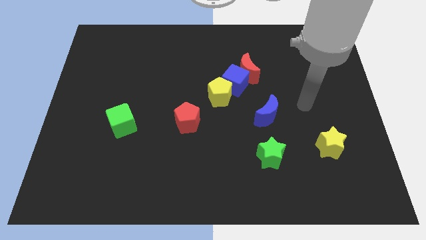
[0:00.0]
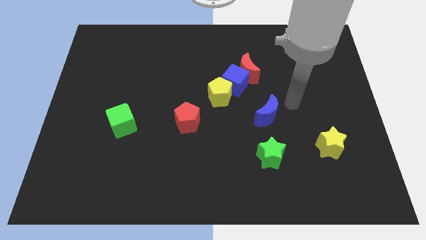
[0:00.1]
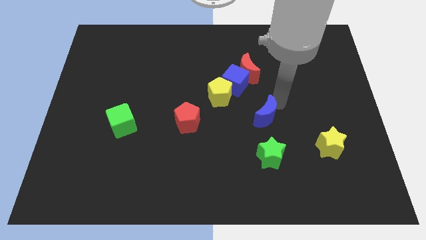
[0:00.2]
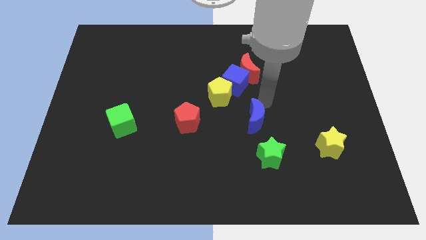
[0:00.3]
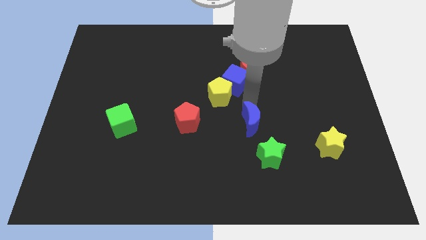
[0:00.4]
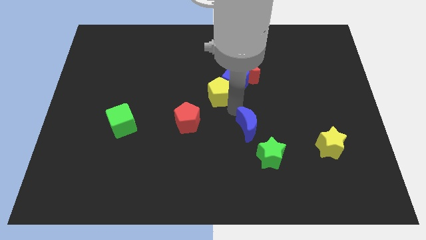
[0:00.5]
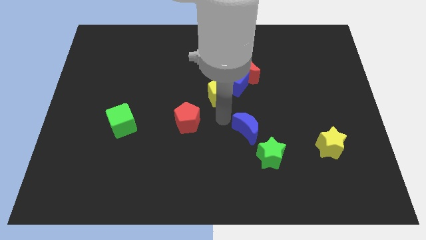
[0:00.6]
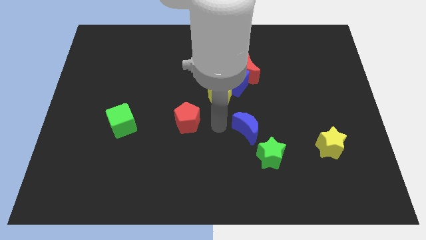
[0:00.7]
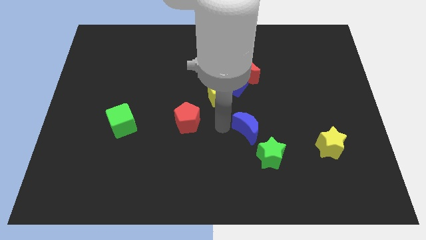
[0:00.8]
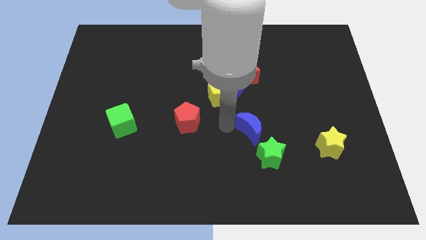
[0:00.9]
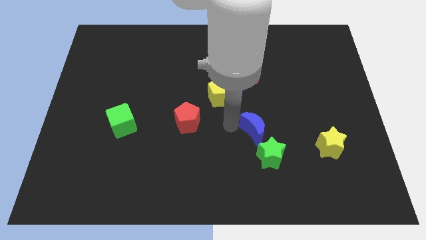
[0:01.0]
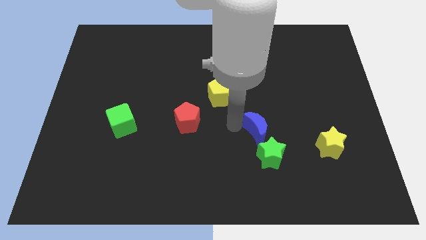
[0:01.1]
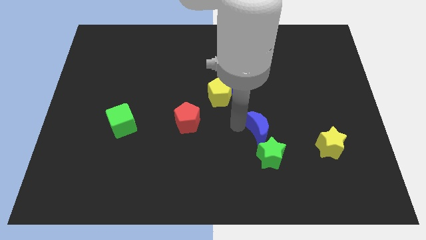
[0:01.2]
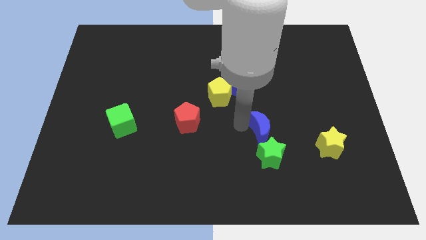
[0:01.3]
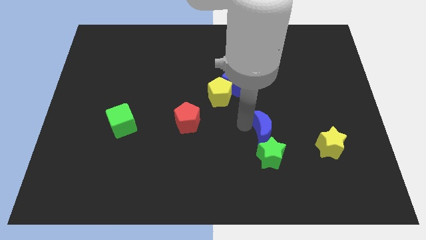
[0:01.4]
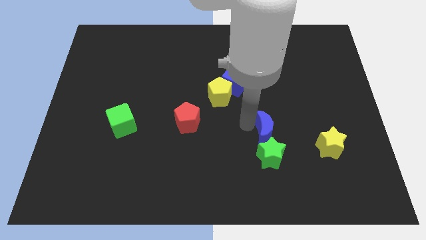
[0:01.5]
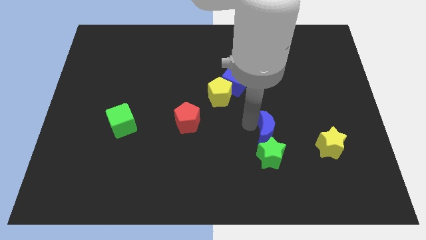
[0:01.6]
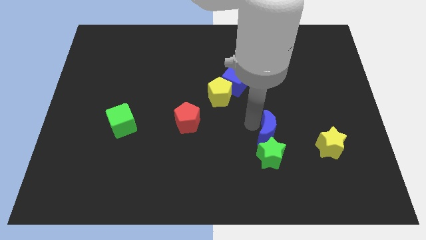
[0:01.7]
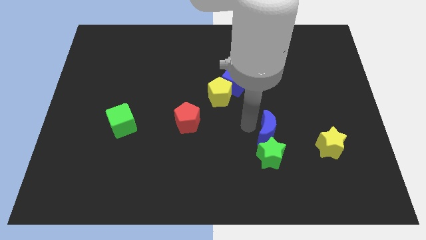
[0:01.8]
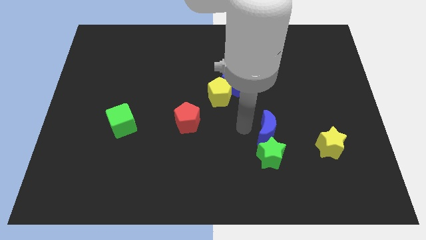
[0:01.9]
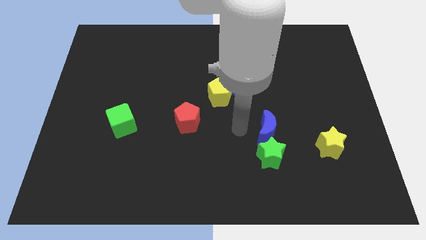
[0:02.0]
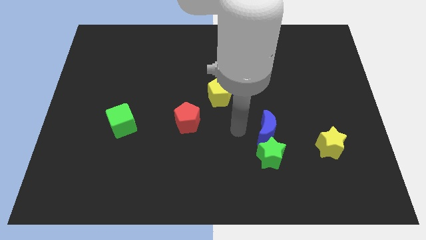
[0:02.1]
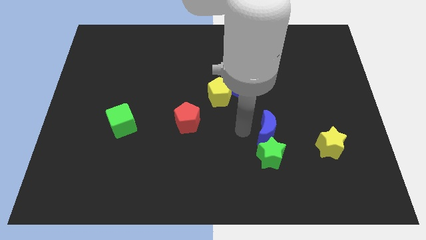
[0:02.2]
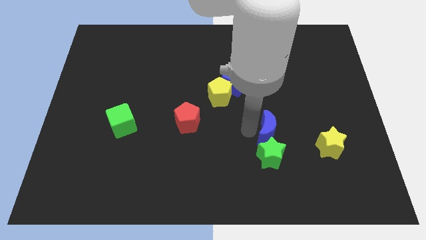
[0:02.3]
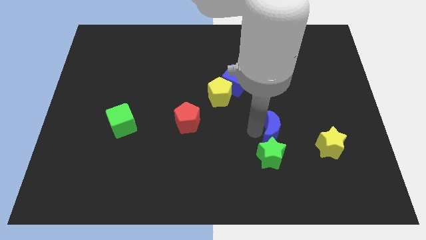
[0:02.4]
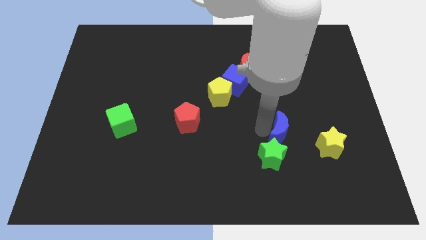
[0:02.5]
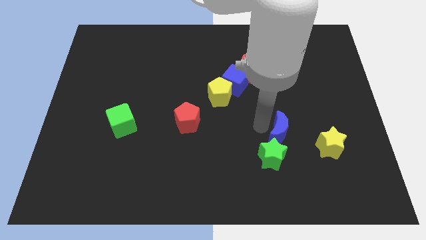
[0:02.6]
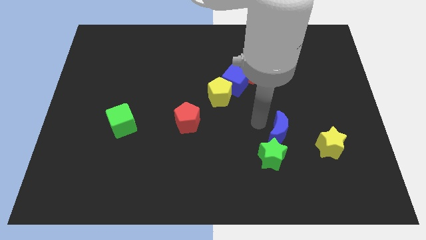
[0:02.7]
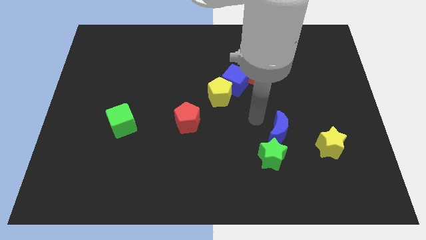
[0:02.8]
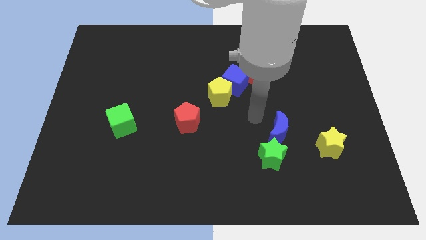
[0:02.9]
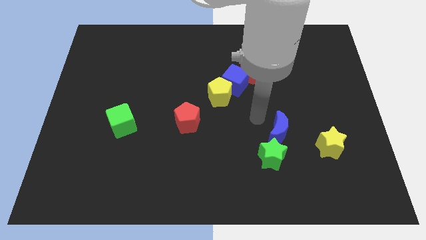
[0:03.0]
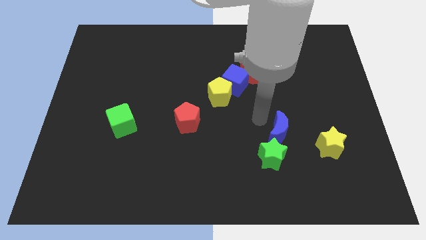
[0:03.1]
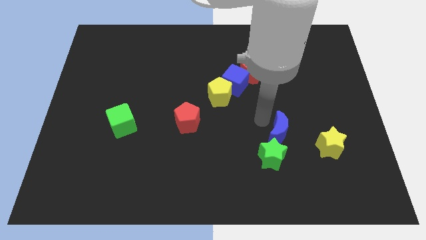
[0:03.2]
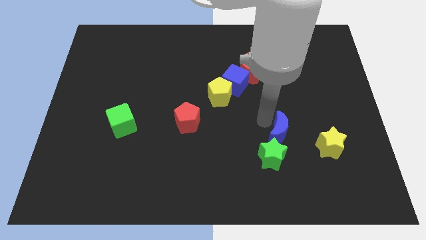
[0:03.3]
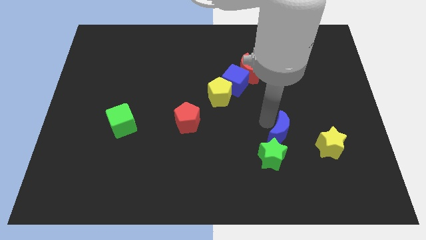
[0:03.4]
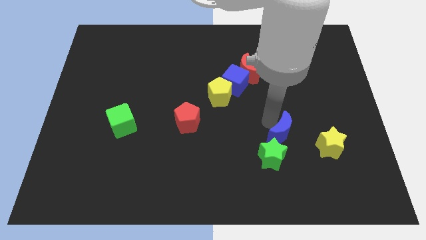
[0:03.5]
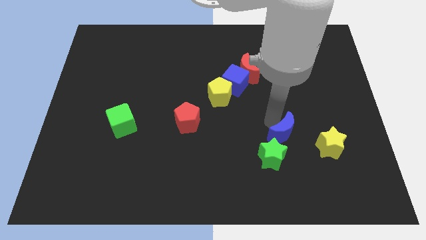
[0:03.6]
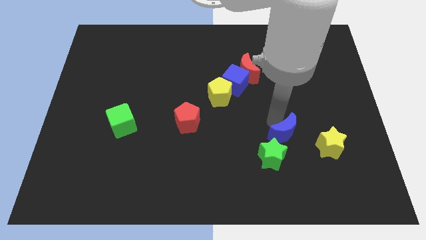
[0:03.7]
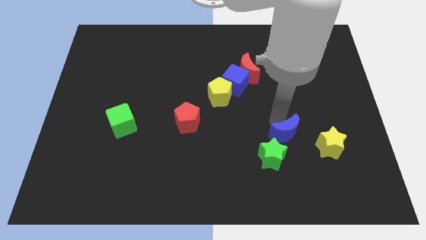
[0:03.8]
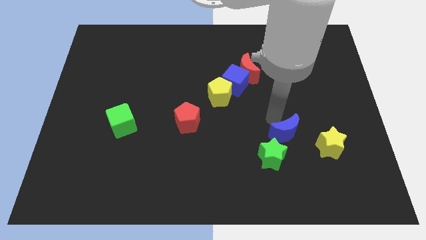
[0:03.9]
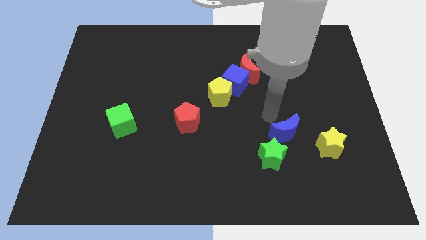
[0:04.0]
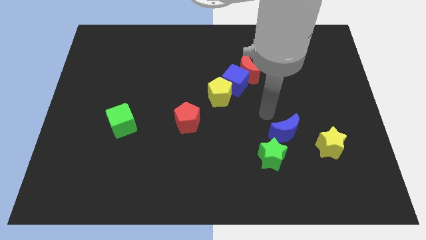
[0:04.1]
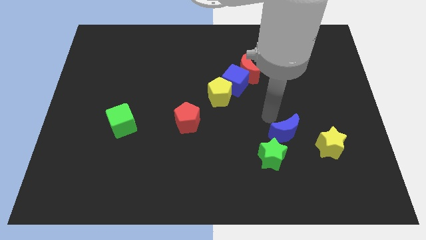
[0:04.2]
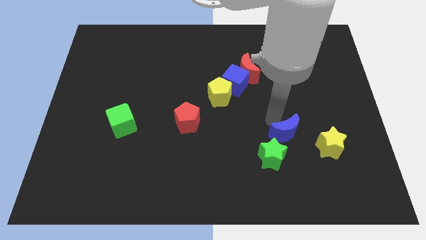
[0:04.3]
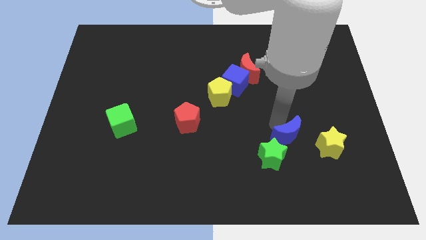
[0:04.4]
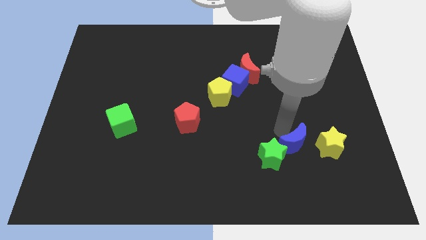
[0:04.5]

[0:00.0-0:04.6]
slightly push the blue moon down and to the right diagonally

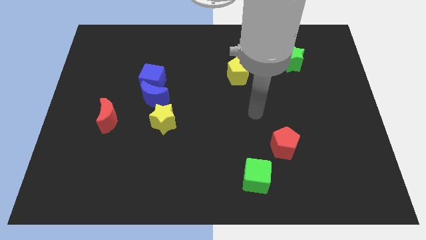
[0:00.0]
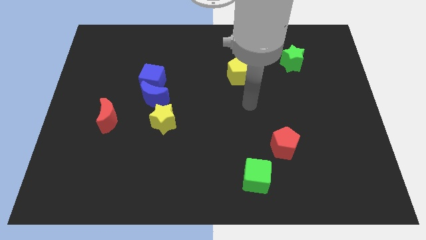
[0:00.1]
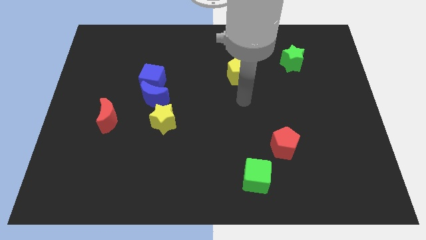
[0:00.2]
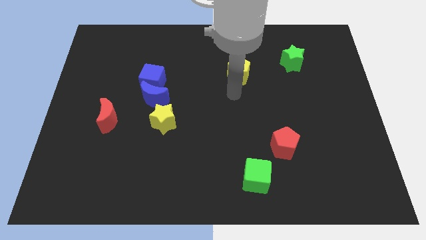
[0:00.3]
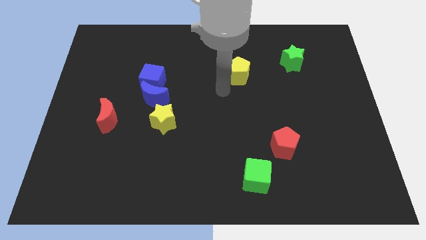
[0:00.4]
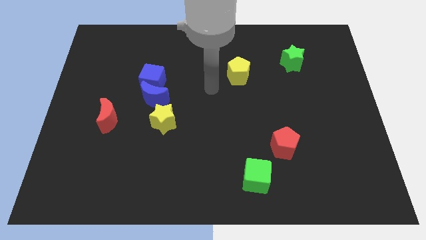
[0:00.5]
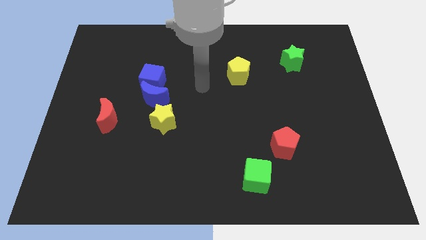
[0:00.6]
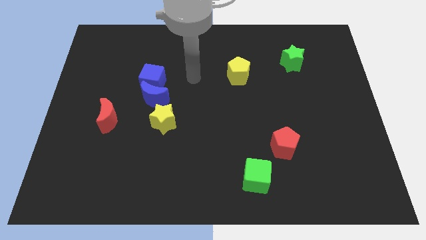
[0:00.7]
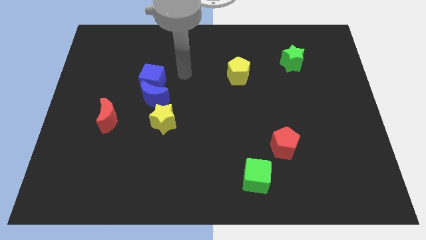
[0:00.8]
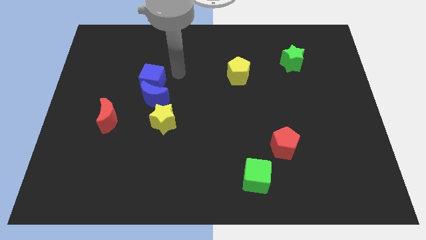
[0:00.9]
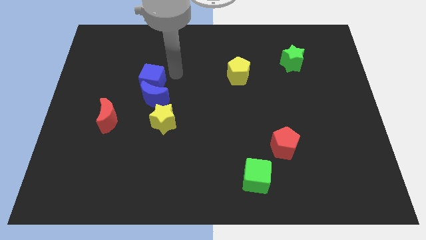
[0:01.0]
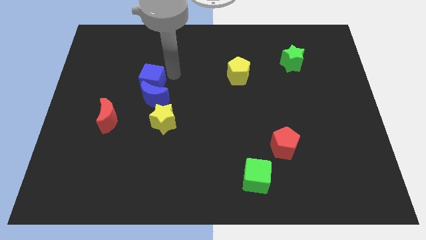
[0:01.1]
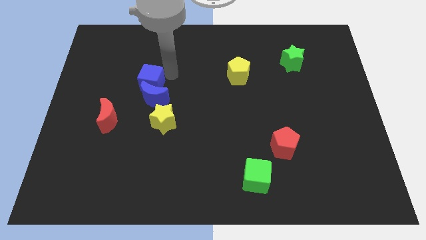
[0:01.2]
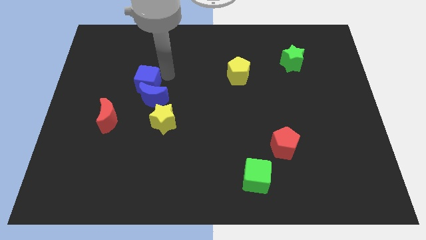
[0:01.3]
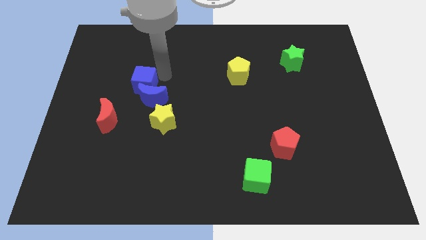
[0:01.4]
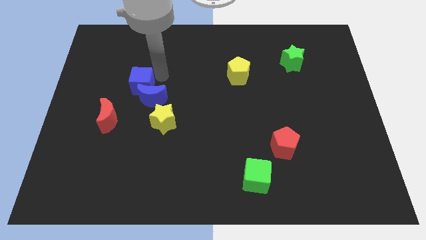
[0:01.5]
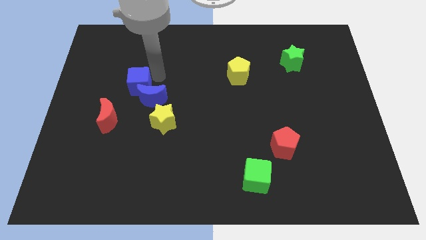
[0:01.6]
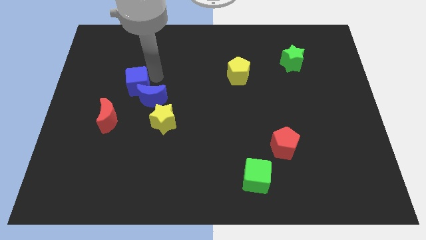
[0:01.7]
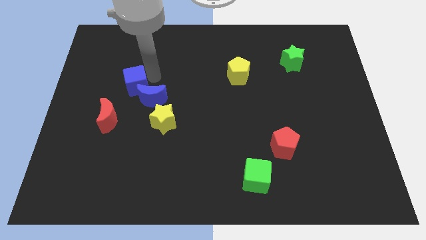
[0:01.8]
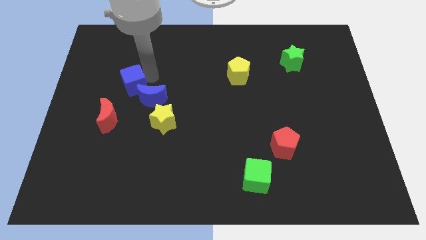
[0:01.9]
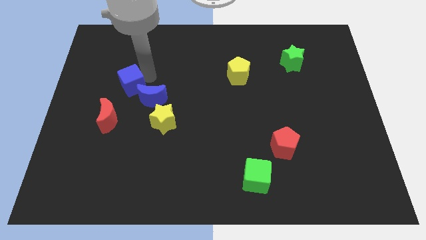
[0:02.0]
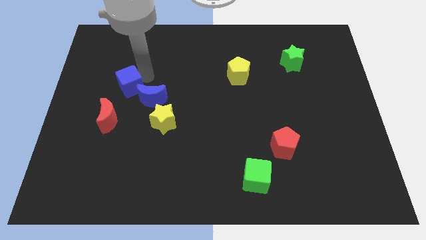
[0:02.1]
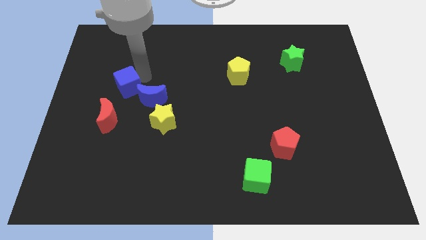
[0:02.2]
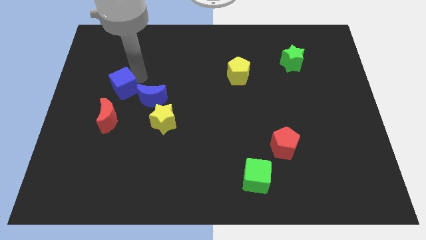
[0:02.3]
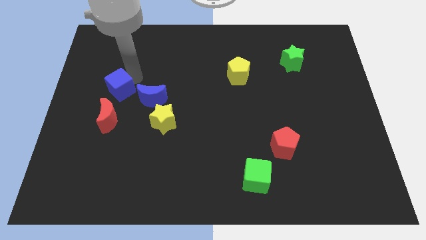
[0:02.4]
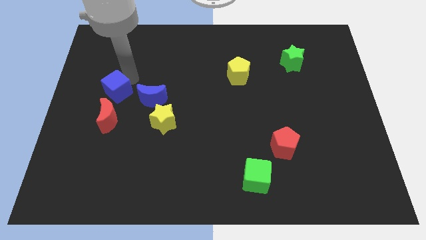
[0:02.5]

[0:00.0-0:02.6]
push the blue cube somewhat diagonally downwards and left

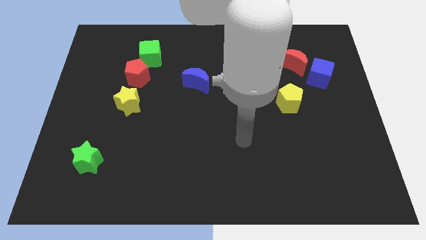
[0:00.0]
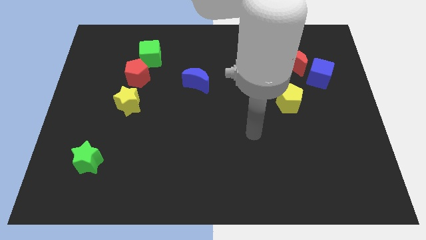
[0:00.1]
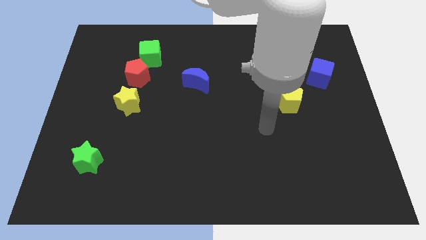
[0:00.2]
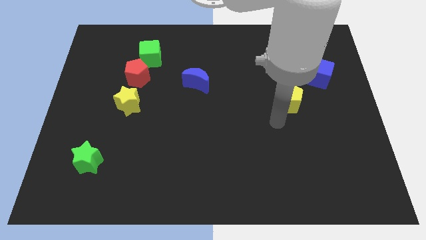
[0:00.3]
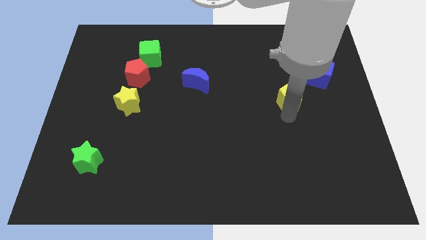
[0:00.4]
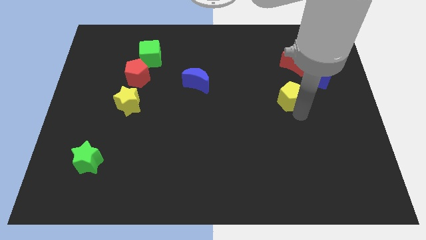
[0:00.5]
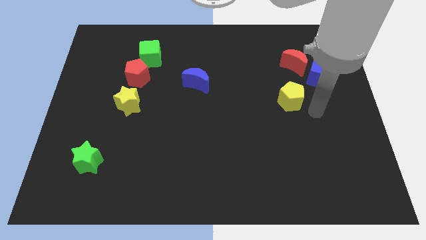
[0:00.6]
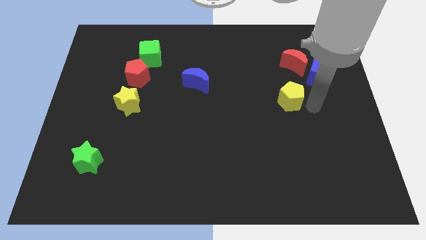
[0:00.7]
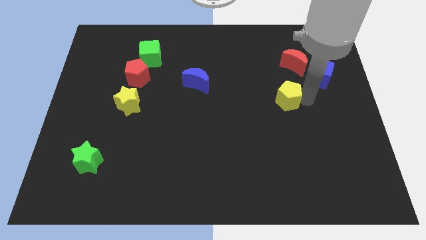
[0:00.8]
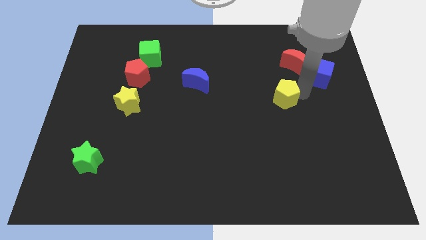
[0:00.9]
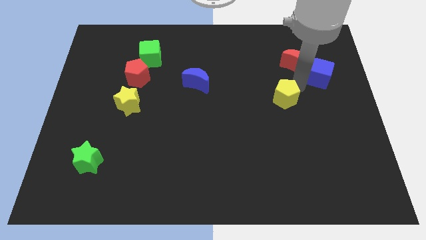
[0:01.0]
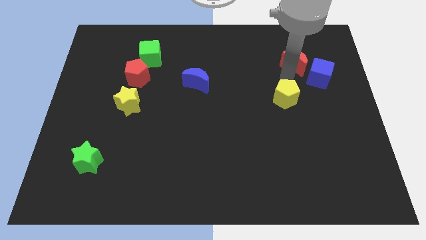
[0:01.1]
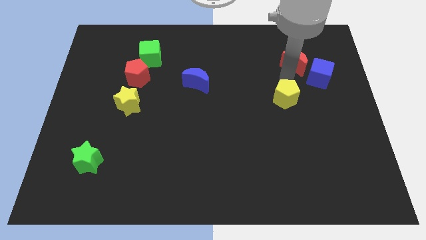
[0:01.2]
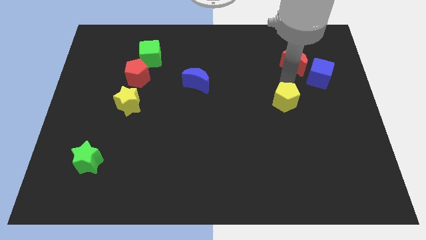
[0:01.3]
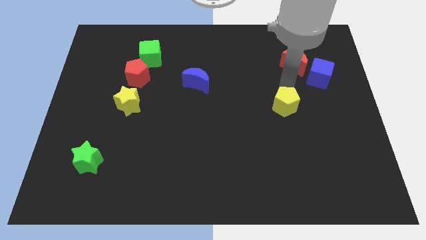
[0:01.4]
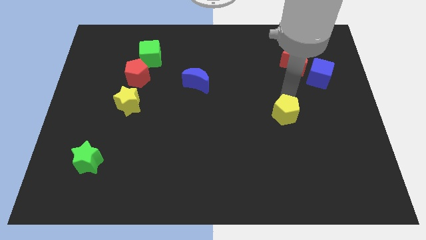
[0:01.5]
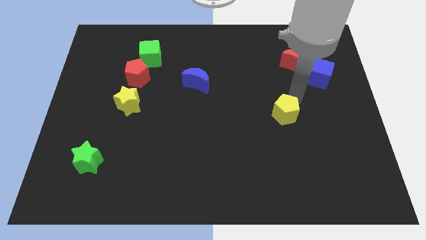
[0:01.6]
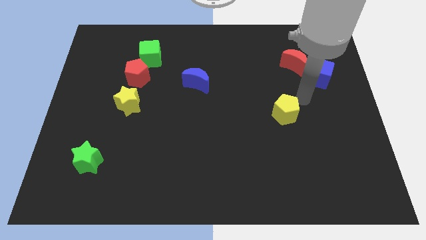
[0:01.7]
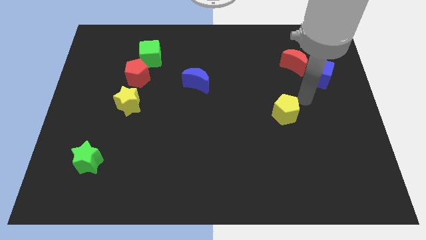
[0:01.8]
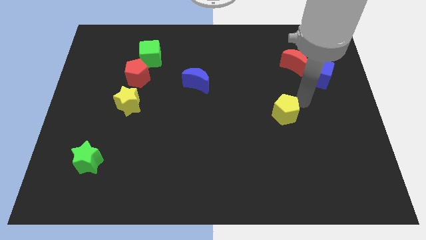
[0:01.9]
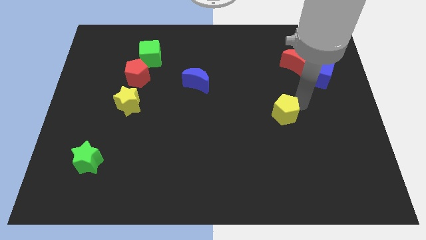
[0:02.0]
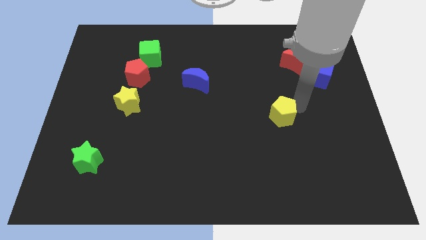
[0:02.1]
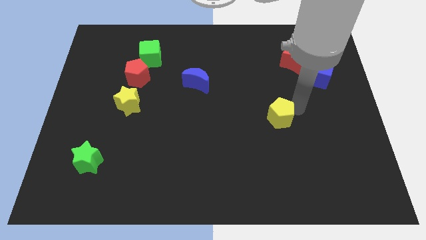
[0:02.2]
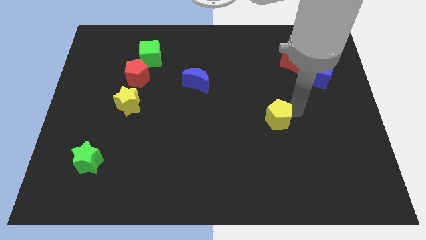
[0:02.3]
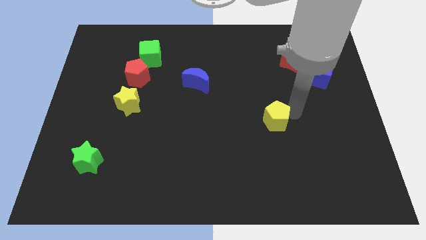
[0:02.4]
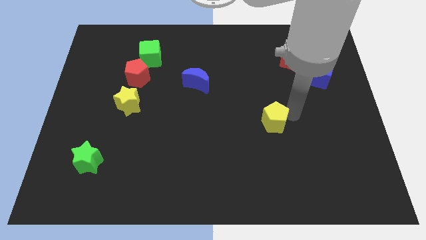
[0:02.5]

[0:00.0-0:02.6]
move the yellow pentagon a bit downwards and left diagonally
